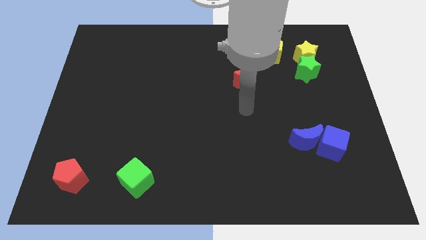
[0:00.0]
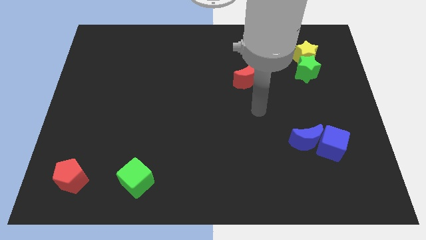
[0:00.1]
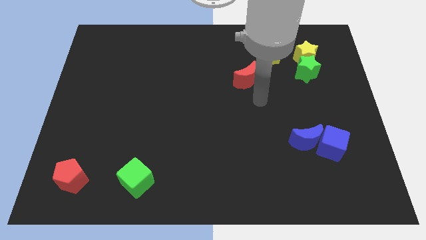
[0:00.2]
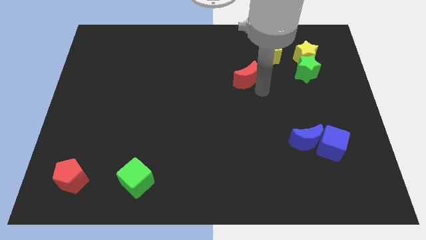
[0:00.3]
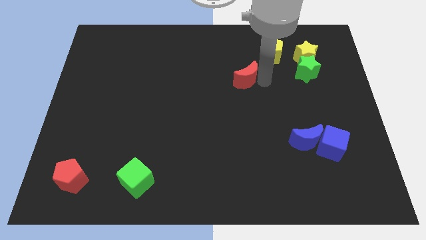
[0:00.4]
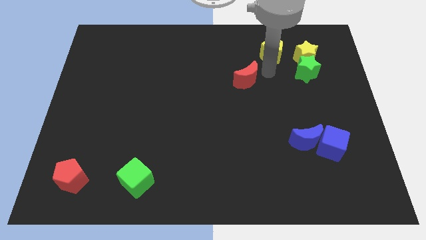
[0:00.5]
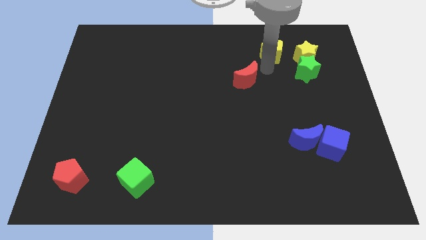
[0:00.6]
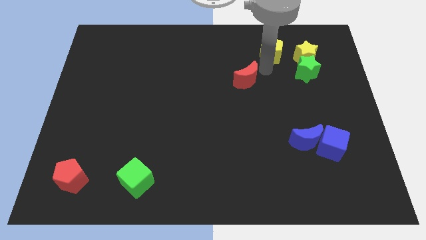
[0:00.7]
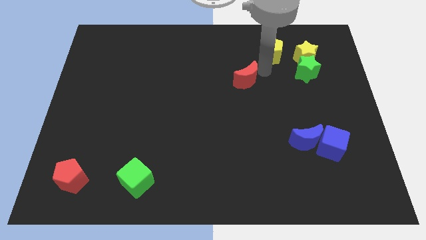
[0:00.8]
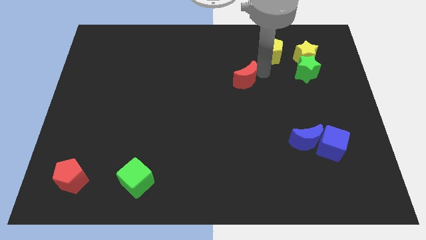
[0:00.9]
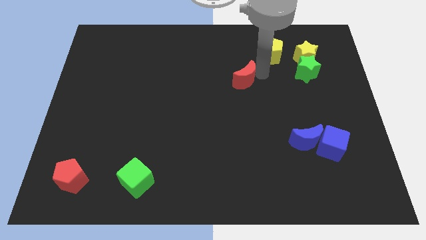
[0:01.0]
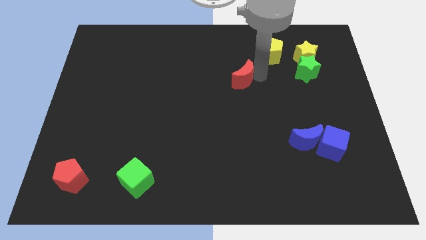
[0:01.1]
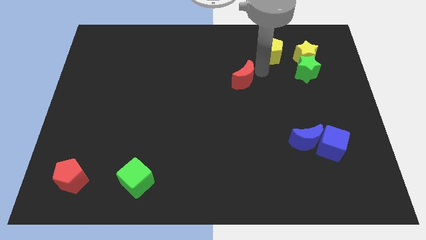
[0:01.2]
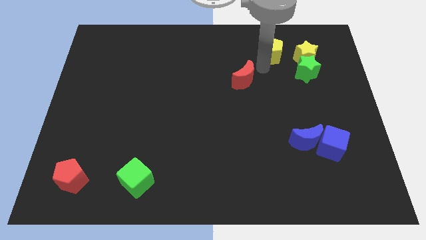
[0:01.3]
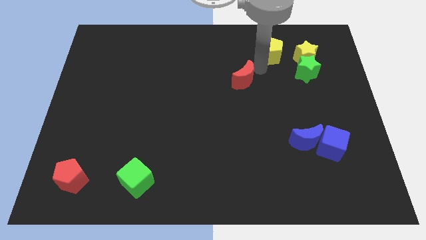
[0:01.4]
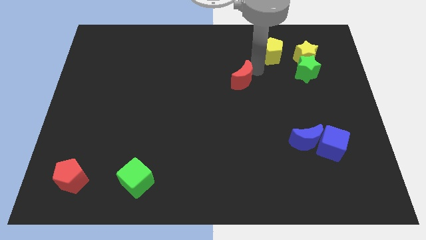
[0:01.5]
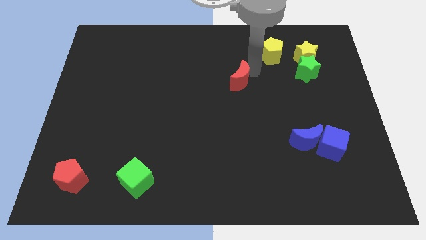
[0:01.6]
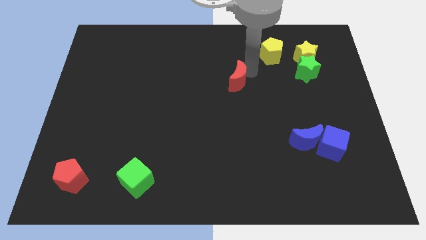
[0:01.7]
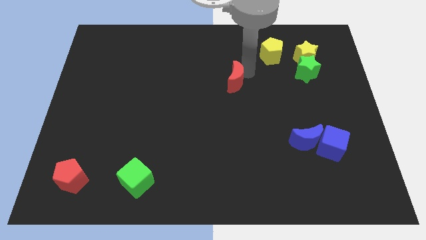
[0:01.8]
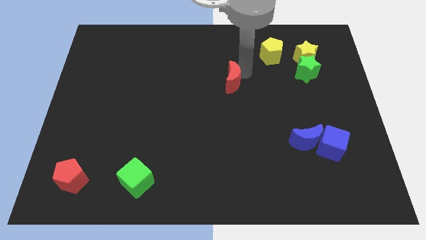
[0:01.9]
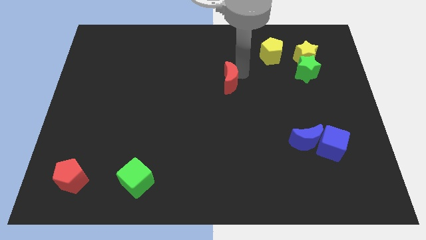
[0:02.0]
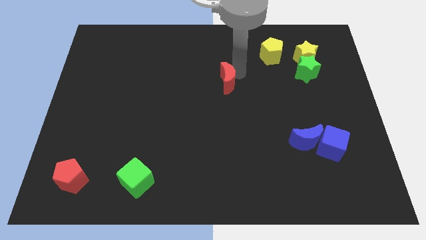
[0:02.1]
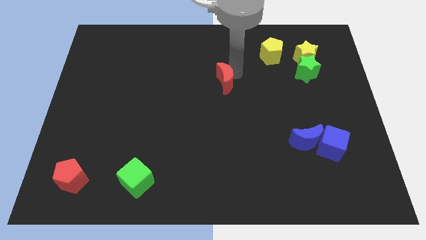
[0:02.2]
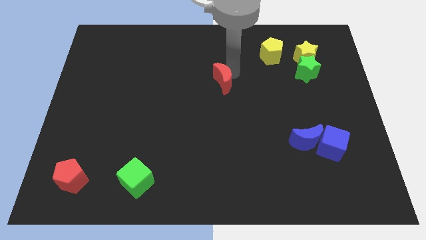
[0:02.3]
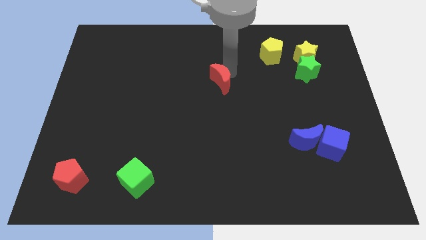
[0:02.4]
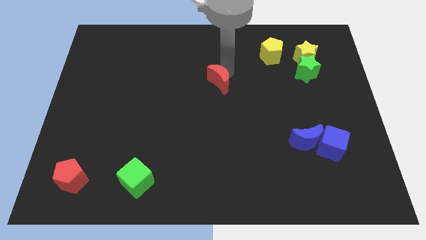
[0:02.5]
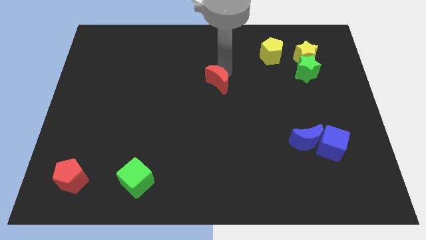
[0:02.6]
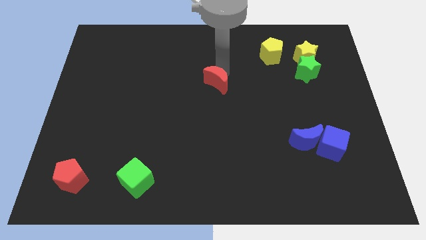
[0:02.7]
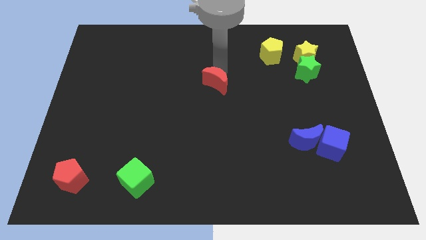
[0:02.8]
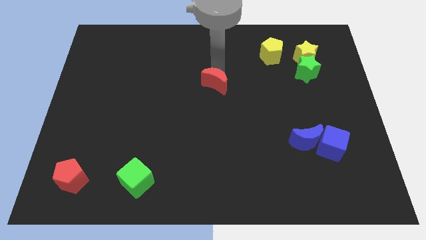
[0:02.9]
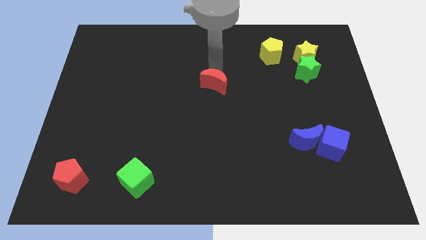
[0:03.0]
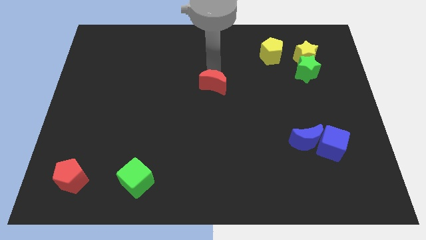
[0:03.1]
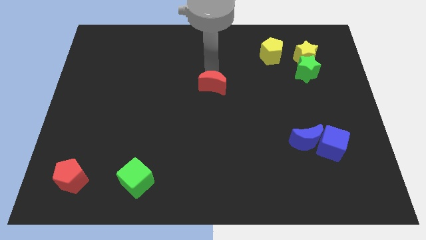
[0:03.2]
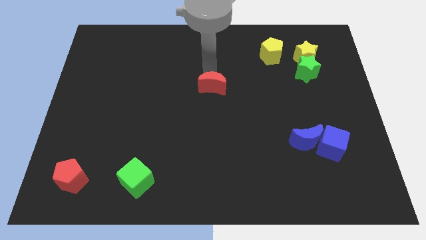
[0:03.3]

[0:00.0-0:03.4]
slightly push the red moon down and to the left diagonally

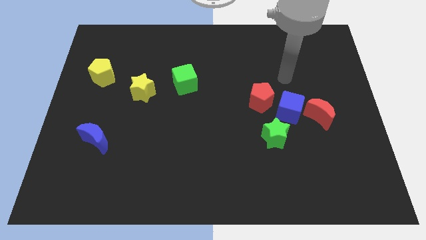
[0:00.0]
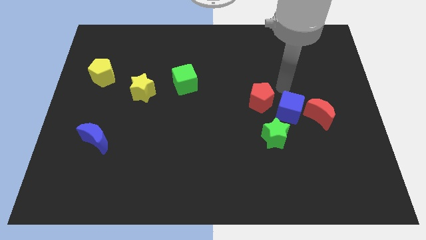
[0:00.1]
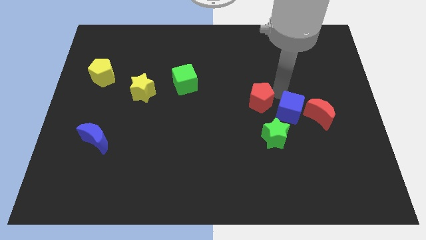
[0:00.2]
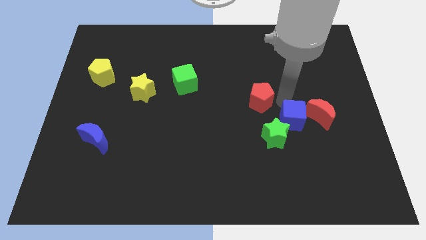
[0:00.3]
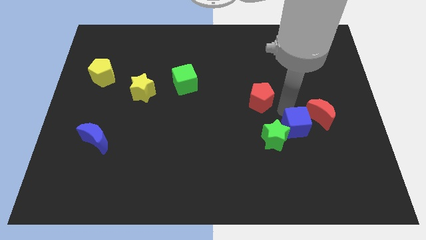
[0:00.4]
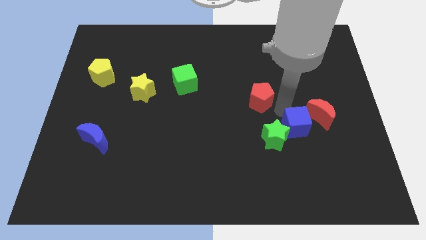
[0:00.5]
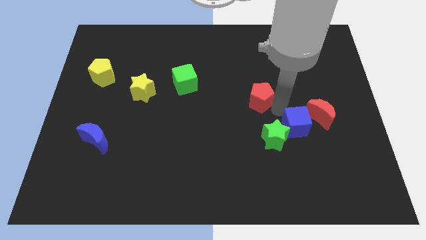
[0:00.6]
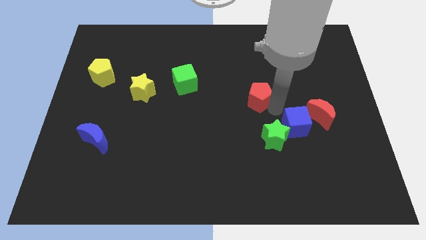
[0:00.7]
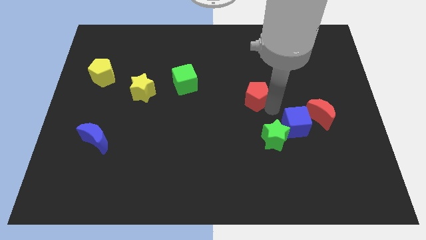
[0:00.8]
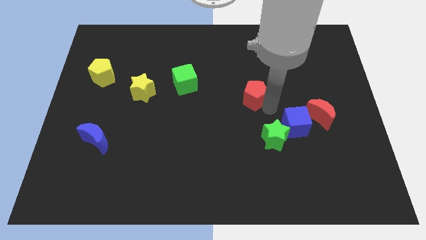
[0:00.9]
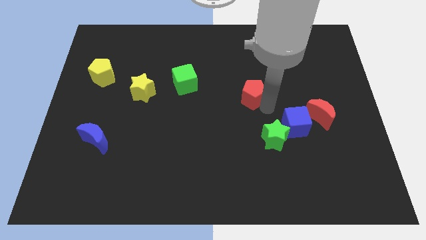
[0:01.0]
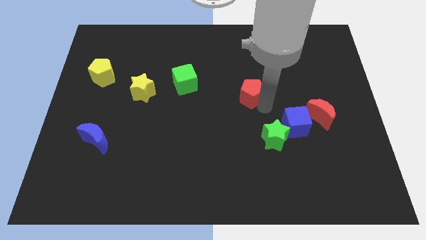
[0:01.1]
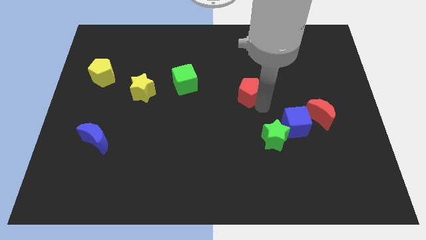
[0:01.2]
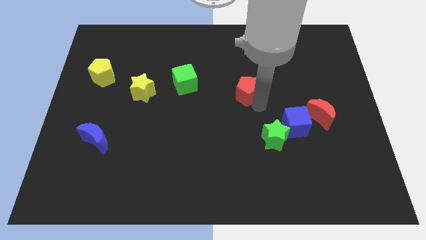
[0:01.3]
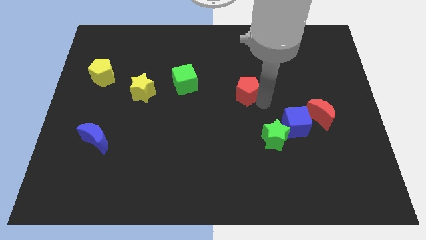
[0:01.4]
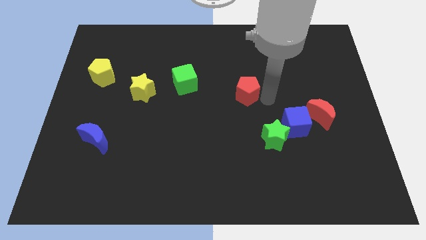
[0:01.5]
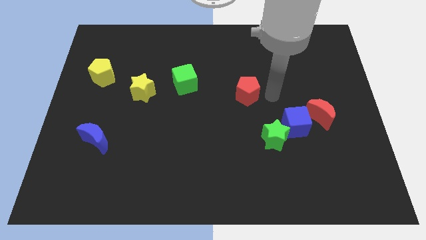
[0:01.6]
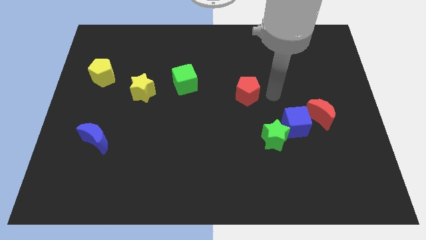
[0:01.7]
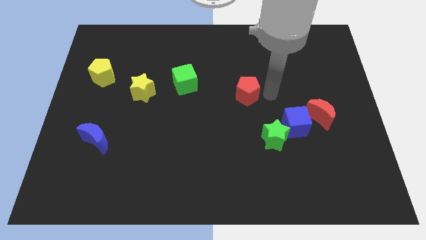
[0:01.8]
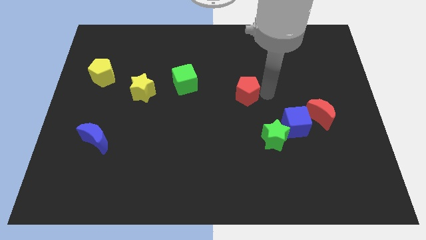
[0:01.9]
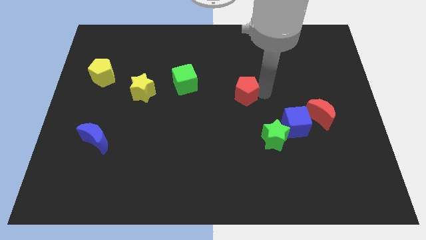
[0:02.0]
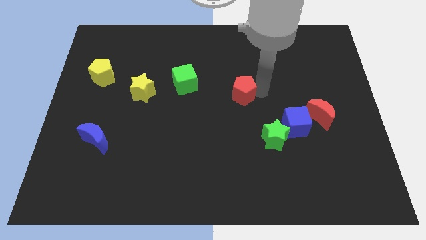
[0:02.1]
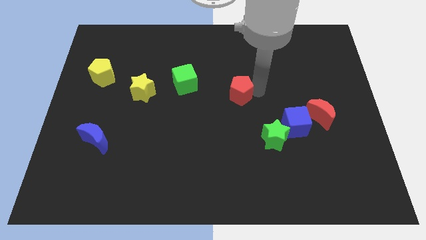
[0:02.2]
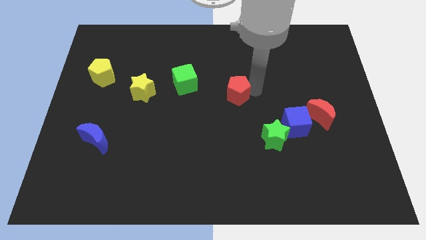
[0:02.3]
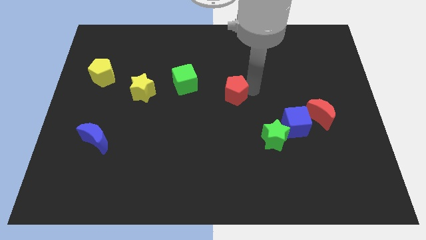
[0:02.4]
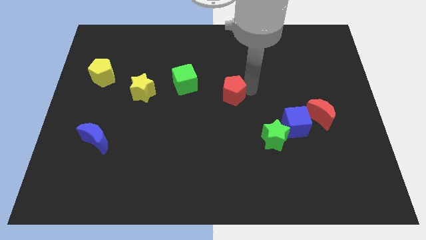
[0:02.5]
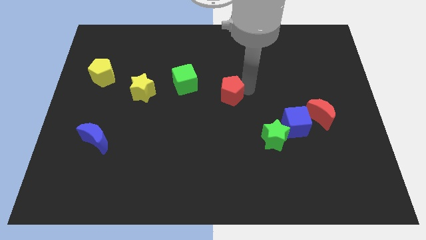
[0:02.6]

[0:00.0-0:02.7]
slide the red pentagon a little bit to the left

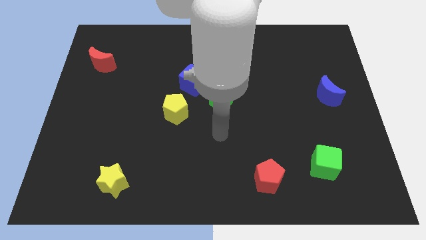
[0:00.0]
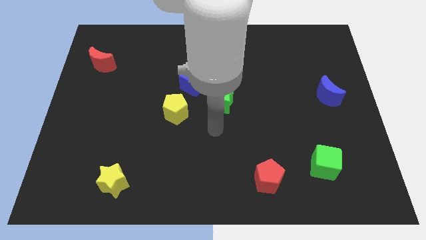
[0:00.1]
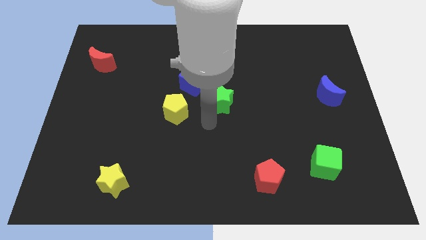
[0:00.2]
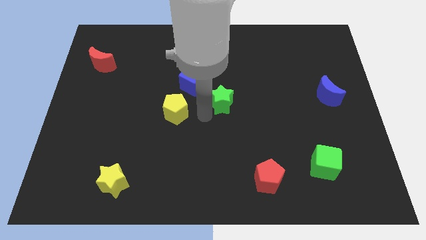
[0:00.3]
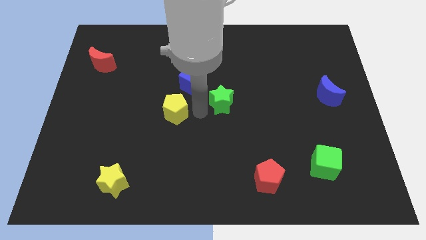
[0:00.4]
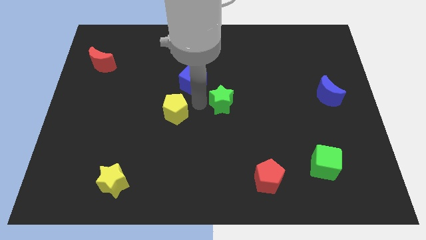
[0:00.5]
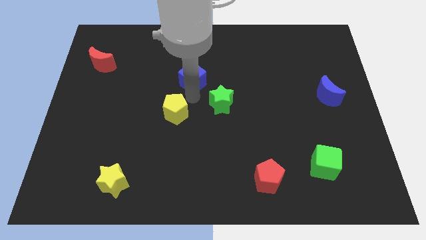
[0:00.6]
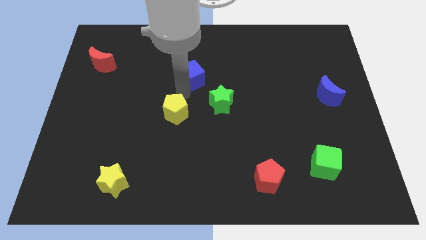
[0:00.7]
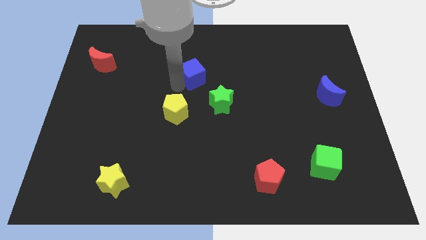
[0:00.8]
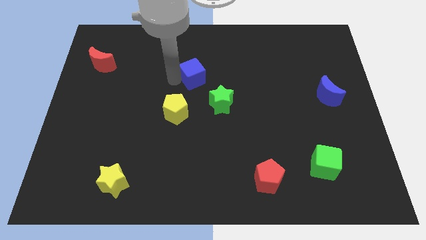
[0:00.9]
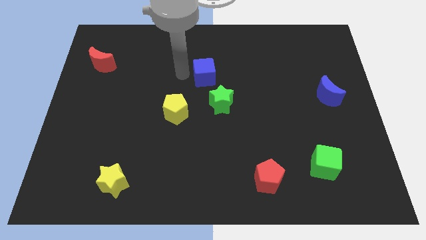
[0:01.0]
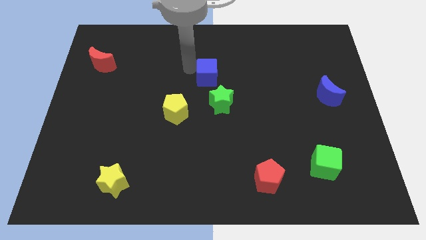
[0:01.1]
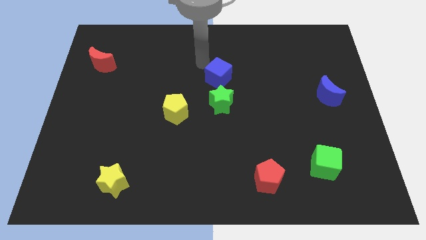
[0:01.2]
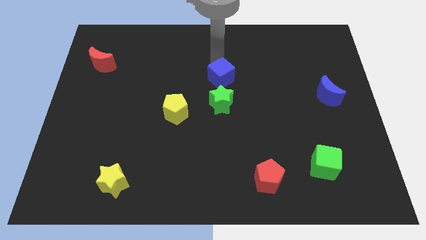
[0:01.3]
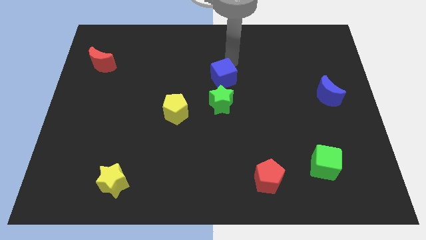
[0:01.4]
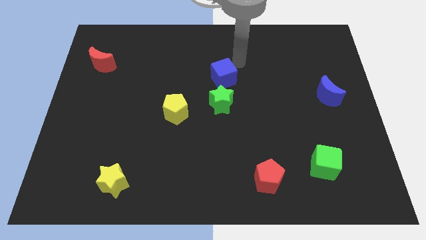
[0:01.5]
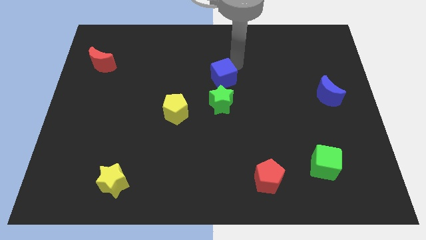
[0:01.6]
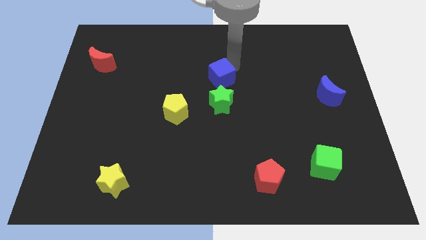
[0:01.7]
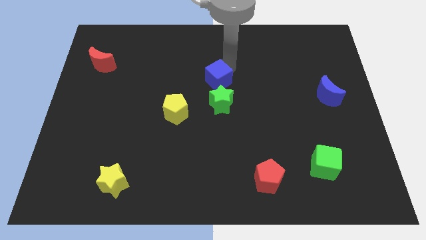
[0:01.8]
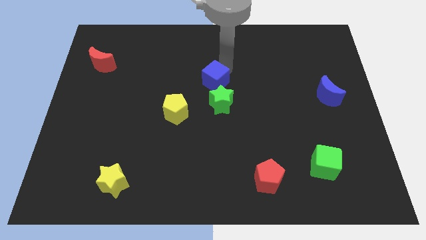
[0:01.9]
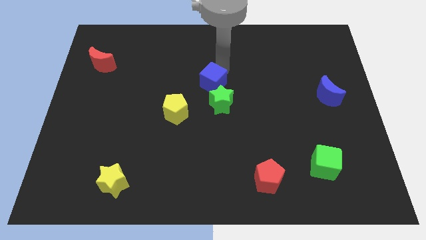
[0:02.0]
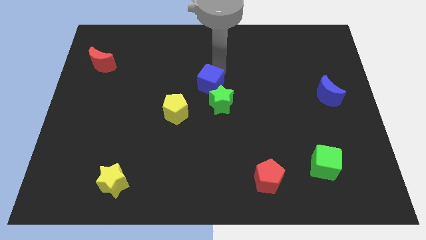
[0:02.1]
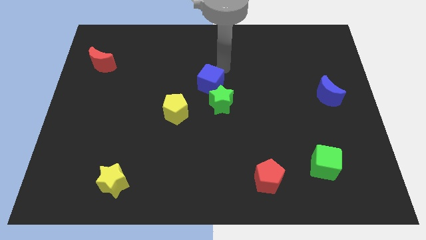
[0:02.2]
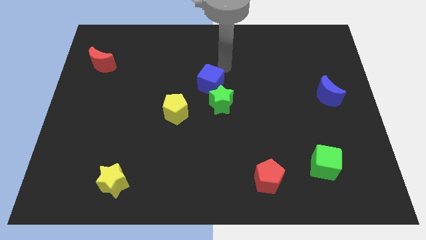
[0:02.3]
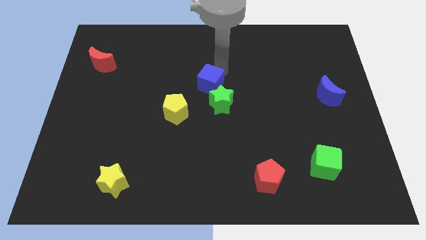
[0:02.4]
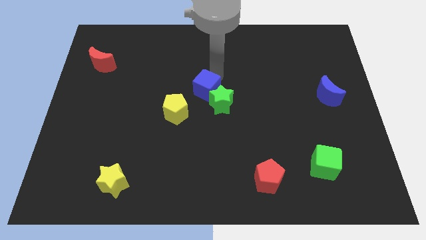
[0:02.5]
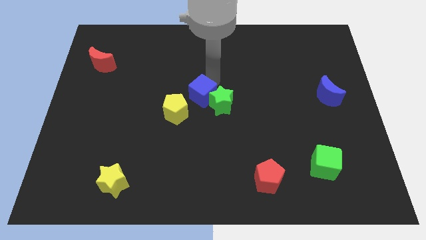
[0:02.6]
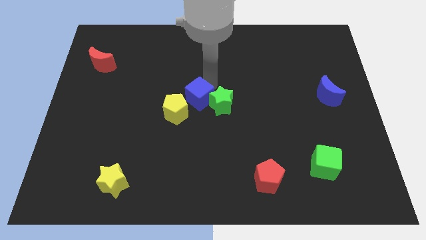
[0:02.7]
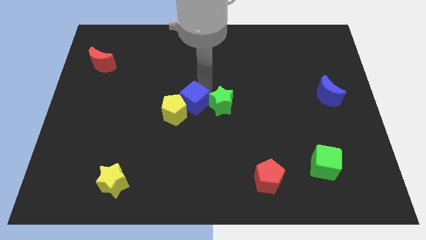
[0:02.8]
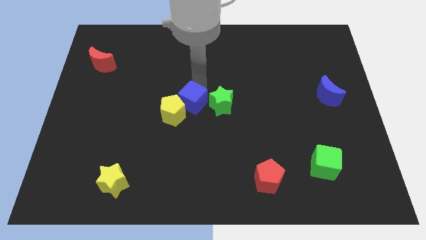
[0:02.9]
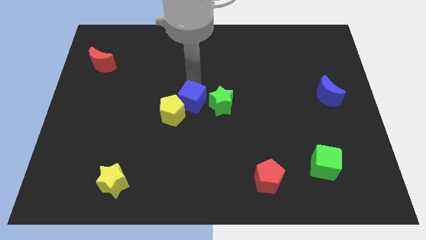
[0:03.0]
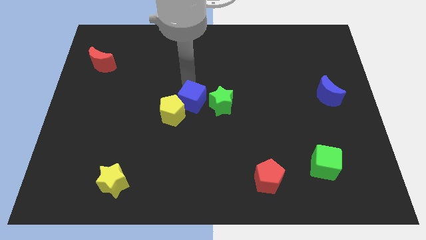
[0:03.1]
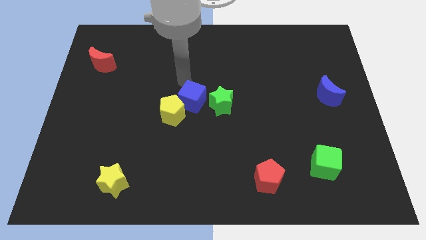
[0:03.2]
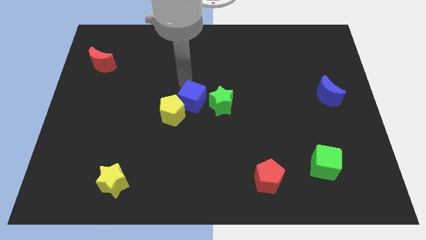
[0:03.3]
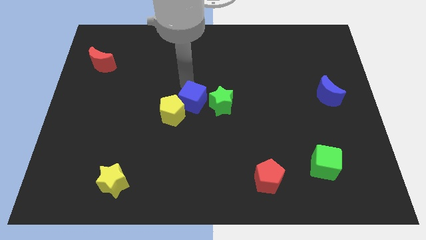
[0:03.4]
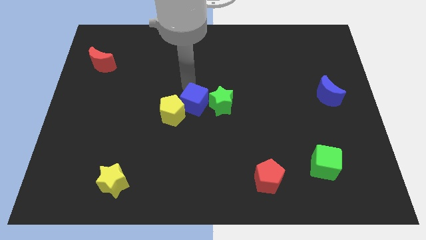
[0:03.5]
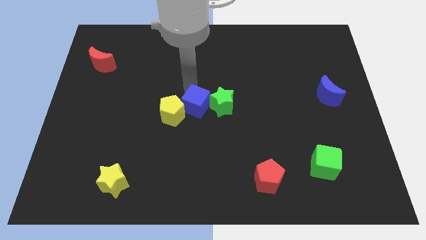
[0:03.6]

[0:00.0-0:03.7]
move the blue cube down a little bit
